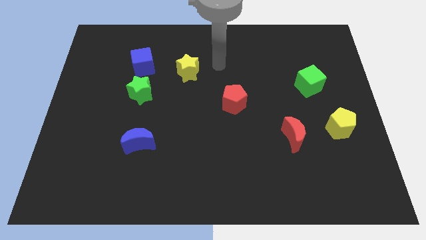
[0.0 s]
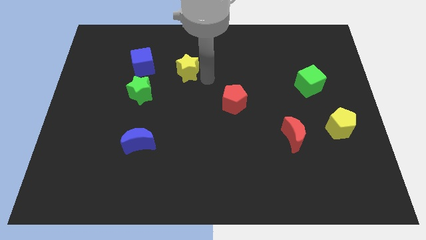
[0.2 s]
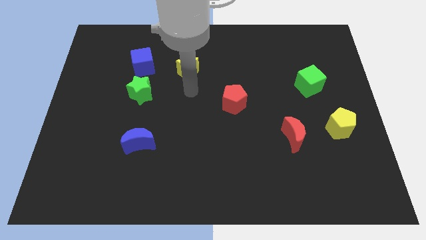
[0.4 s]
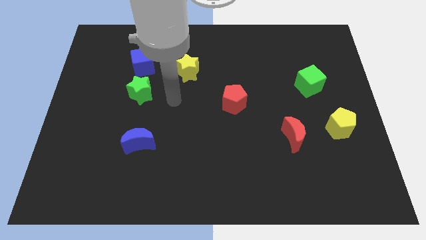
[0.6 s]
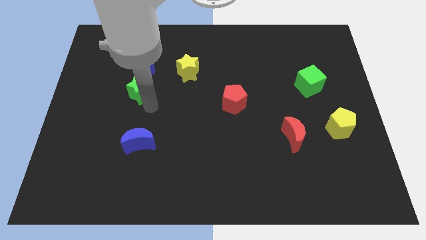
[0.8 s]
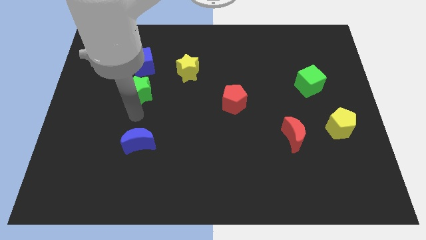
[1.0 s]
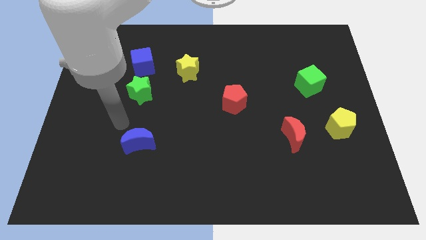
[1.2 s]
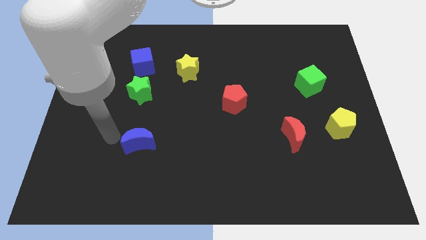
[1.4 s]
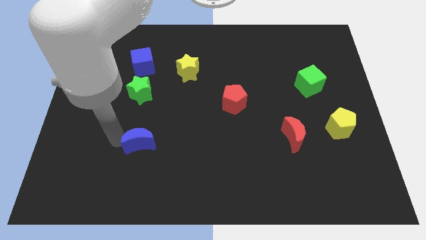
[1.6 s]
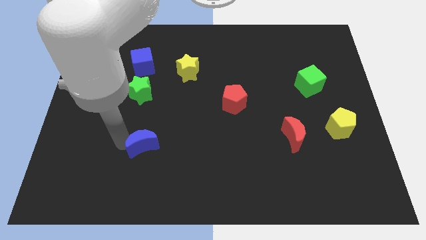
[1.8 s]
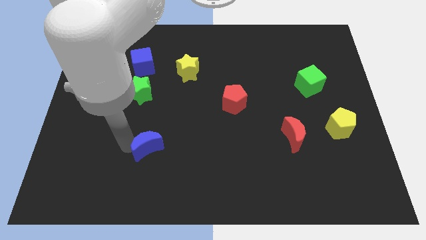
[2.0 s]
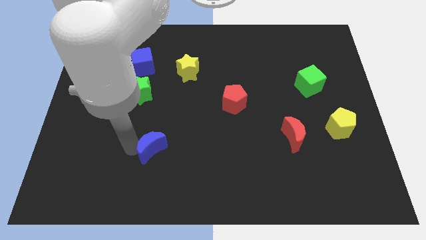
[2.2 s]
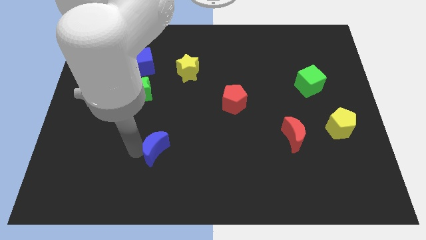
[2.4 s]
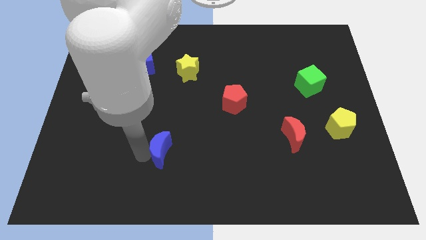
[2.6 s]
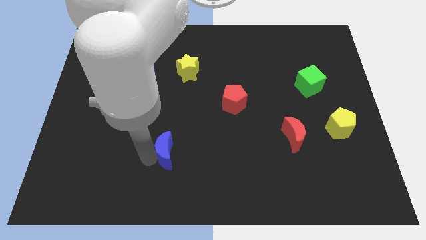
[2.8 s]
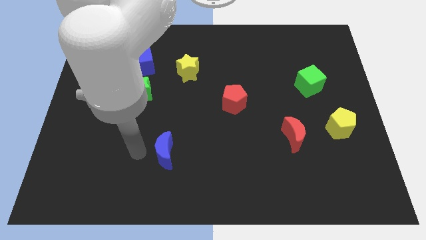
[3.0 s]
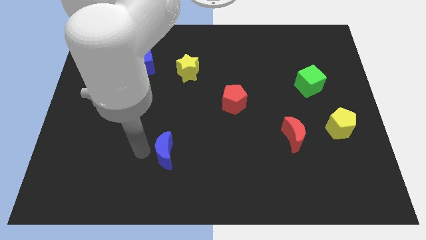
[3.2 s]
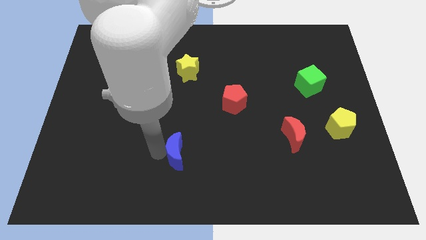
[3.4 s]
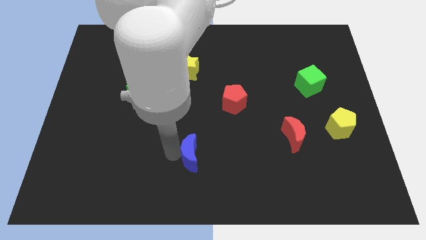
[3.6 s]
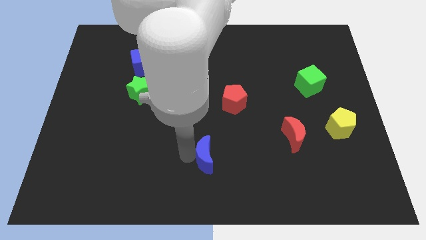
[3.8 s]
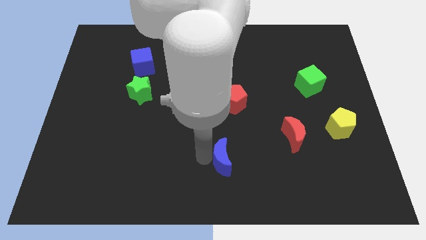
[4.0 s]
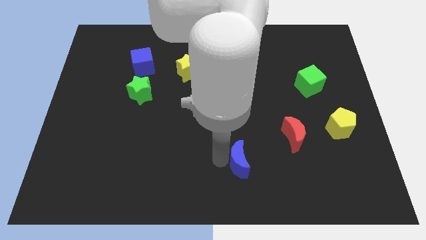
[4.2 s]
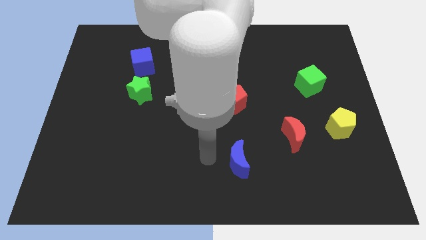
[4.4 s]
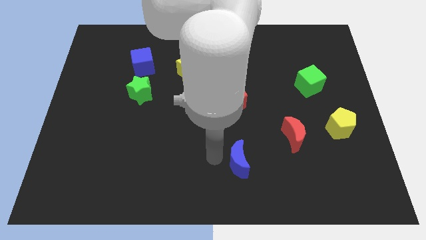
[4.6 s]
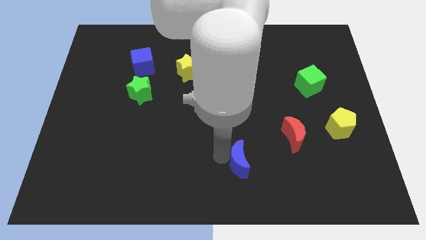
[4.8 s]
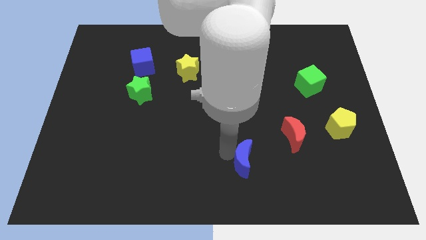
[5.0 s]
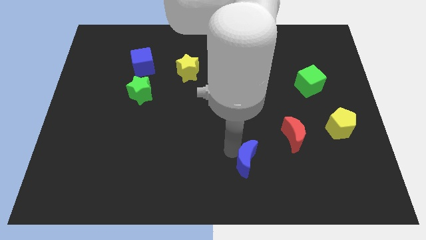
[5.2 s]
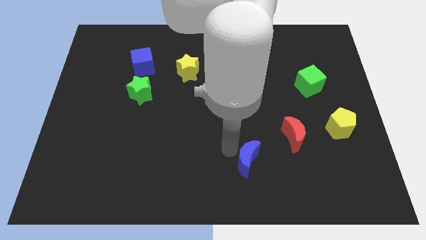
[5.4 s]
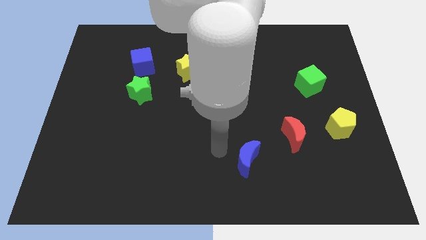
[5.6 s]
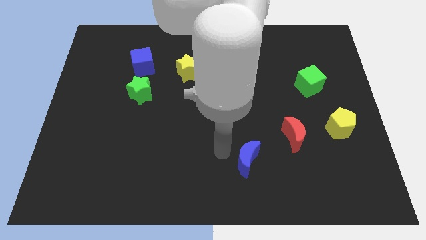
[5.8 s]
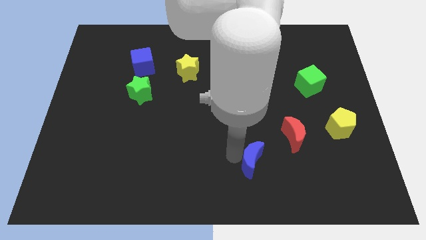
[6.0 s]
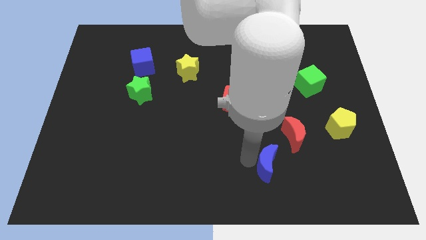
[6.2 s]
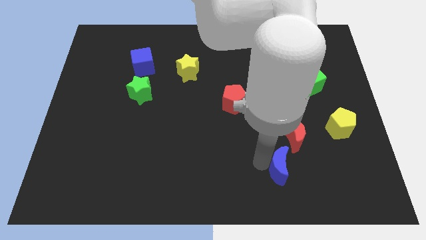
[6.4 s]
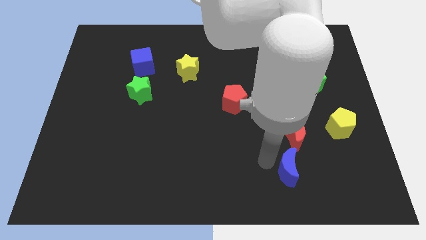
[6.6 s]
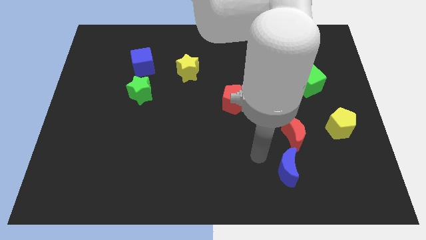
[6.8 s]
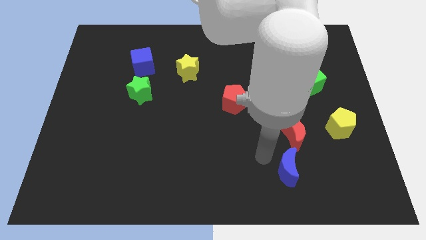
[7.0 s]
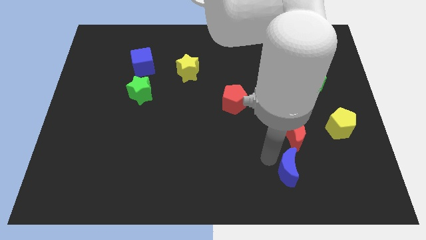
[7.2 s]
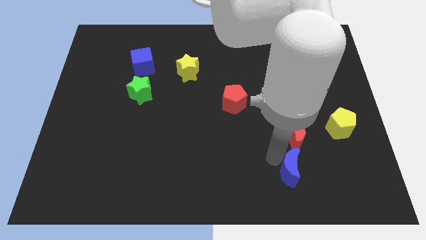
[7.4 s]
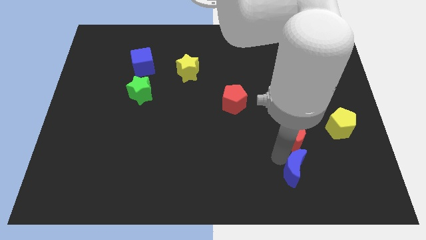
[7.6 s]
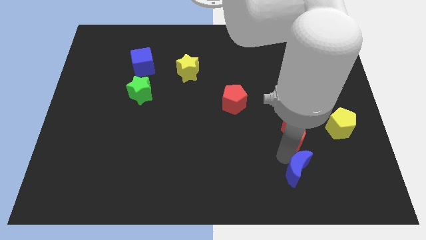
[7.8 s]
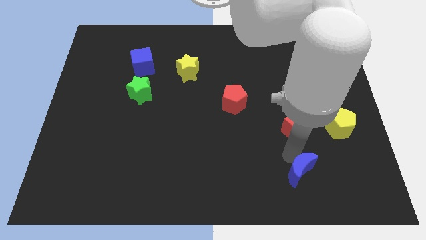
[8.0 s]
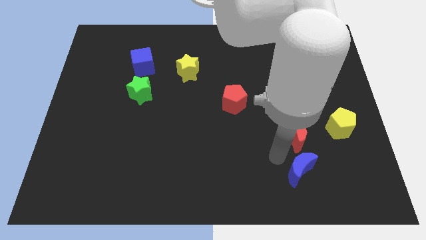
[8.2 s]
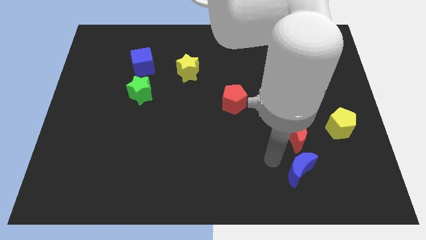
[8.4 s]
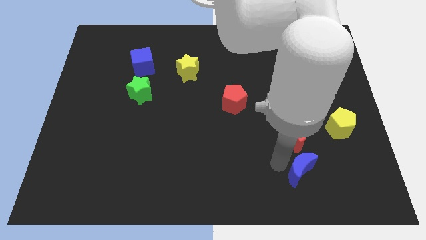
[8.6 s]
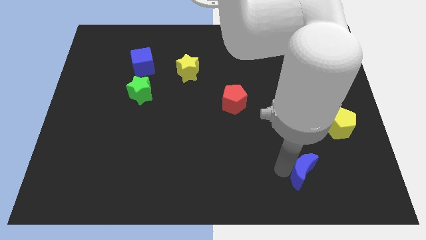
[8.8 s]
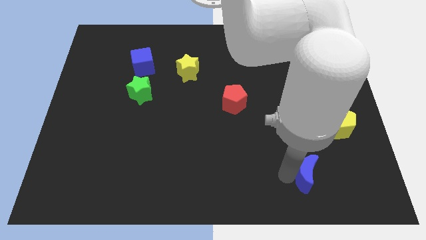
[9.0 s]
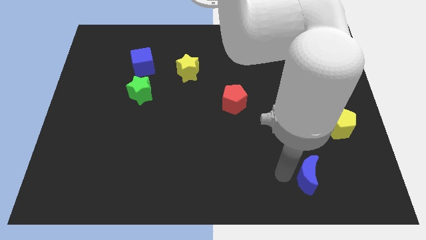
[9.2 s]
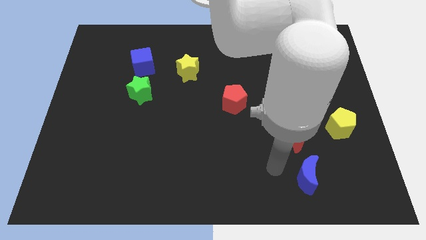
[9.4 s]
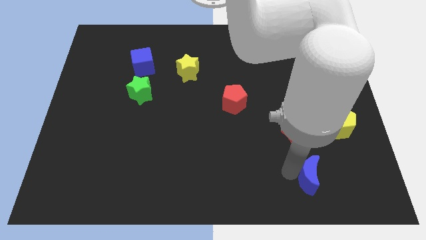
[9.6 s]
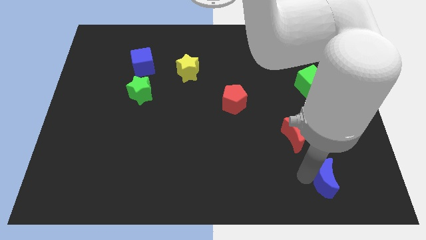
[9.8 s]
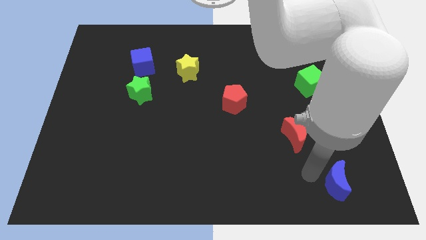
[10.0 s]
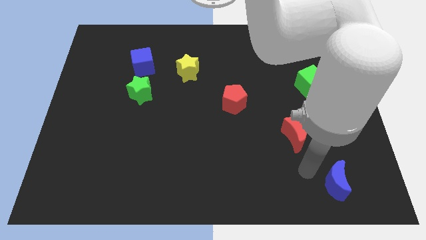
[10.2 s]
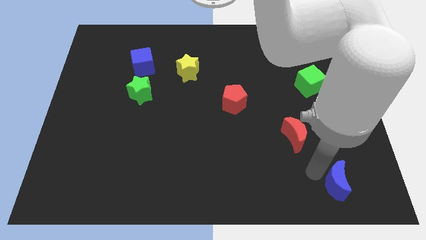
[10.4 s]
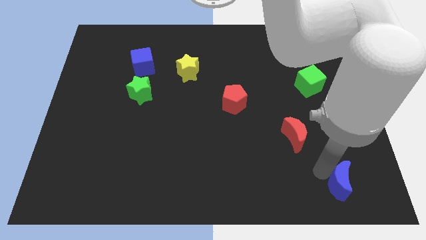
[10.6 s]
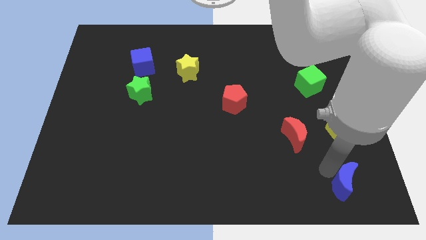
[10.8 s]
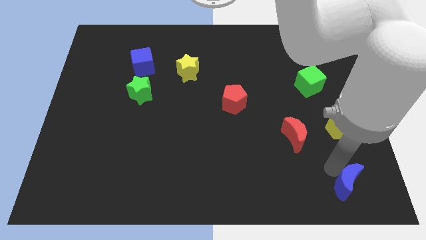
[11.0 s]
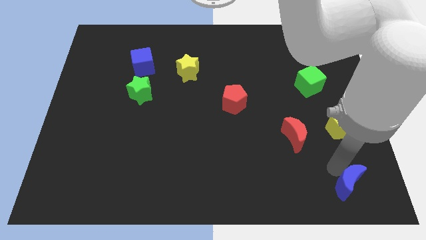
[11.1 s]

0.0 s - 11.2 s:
move the blue moon to the bottom right

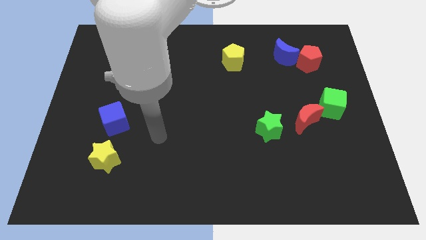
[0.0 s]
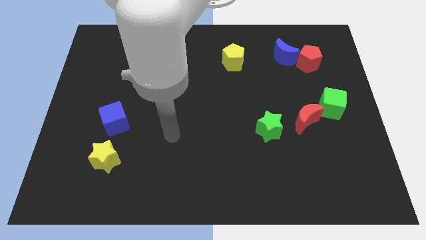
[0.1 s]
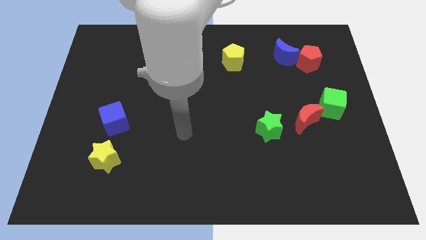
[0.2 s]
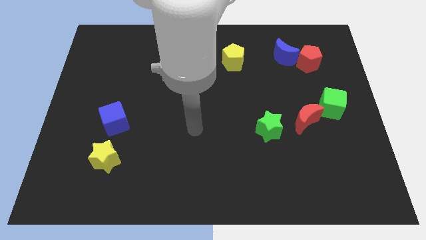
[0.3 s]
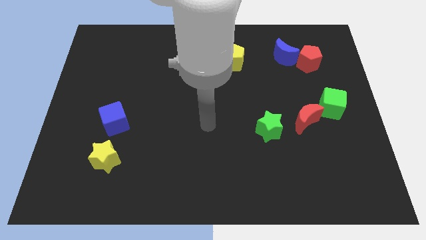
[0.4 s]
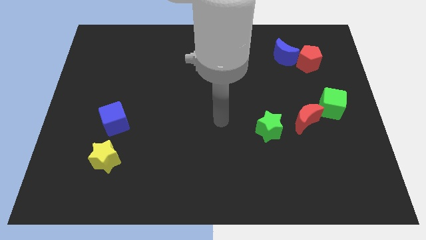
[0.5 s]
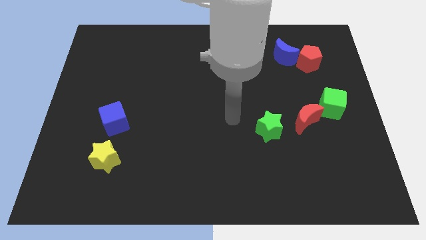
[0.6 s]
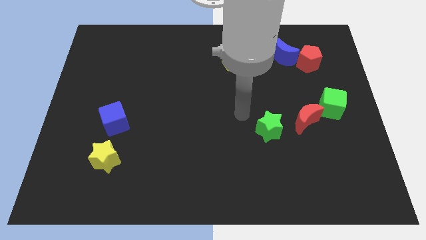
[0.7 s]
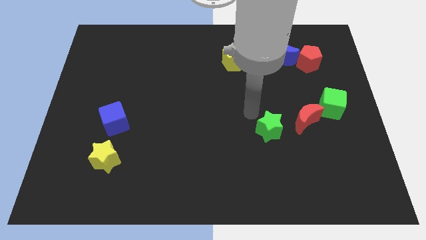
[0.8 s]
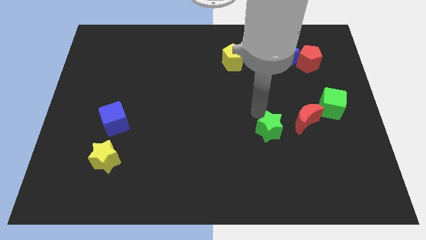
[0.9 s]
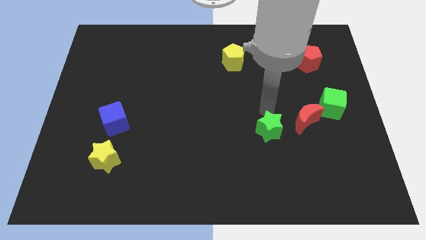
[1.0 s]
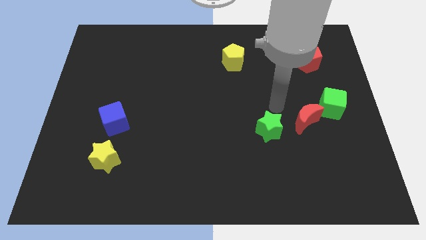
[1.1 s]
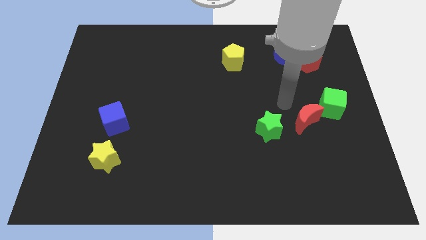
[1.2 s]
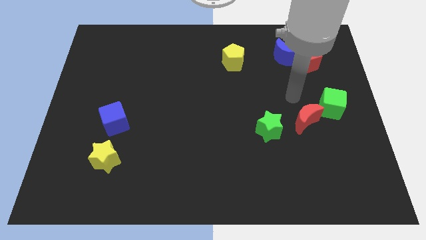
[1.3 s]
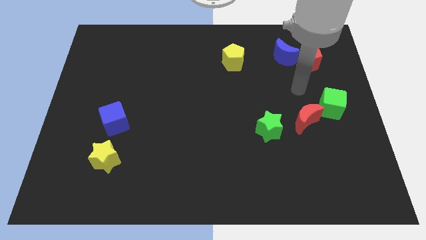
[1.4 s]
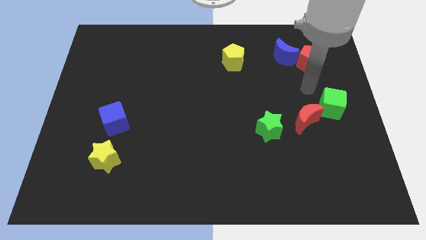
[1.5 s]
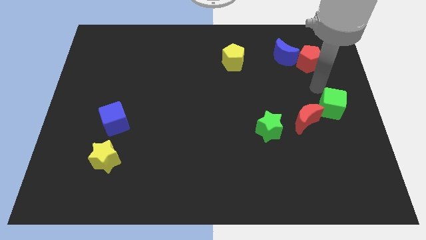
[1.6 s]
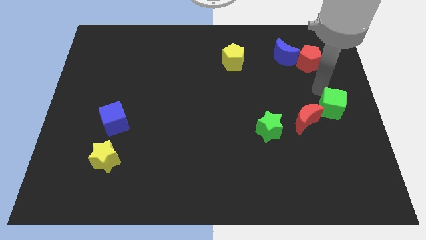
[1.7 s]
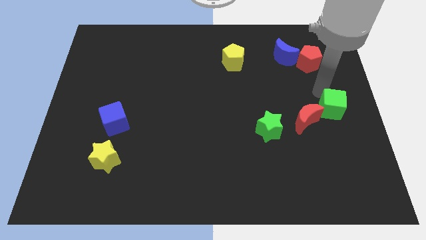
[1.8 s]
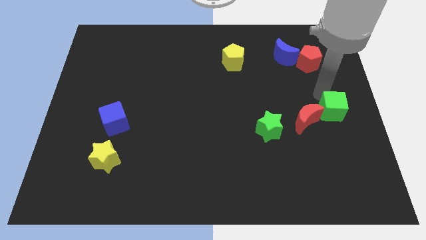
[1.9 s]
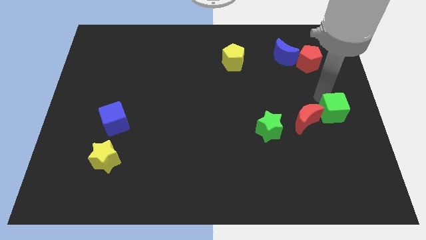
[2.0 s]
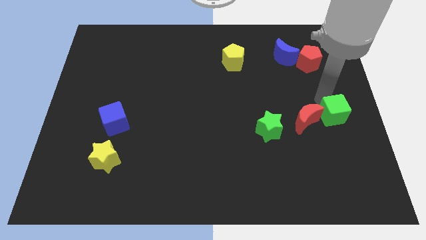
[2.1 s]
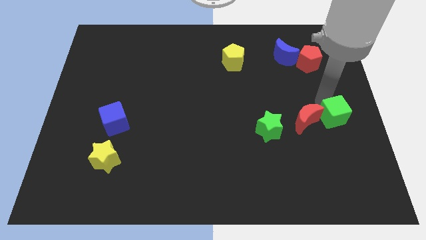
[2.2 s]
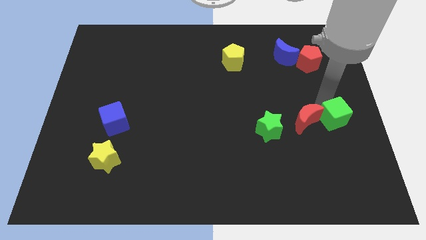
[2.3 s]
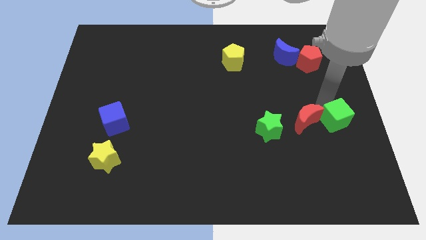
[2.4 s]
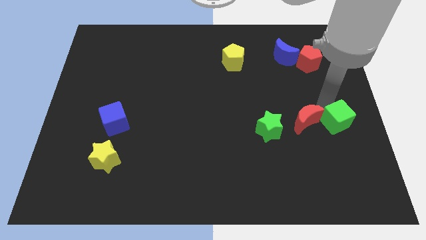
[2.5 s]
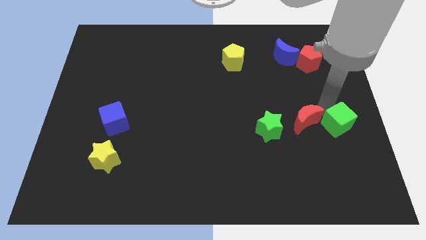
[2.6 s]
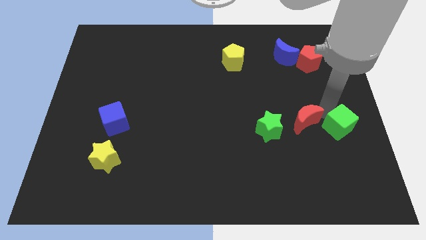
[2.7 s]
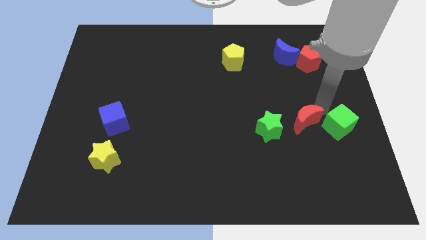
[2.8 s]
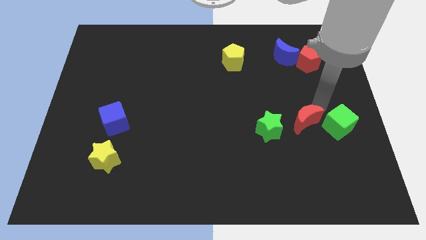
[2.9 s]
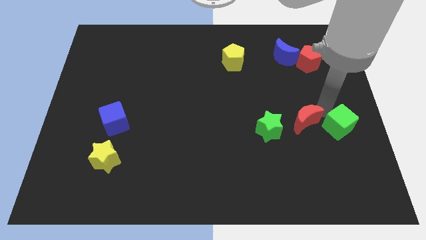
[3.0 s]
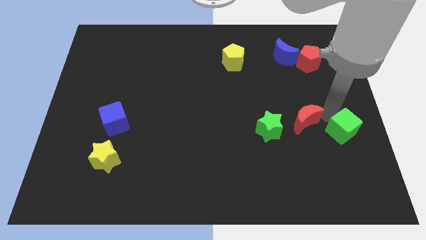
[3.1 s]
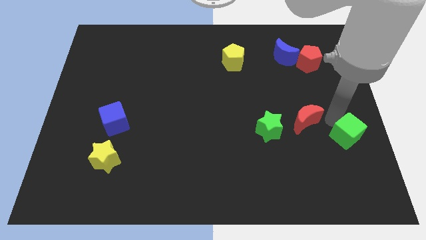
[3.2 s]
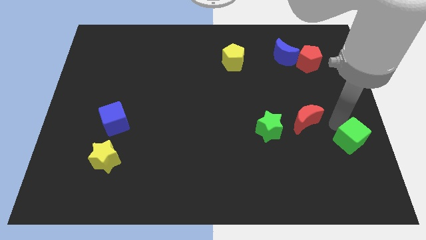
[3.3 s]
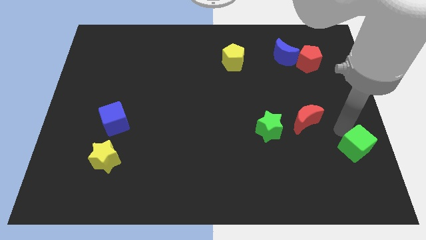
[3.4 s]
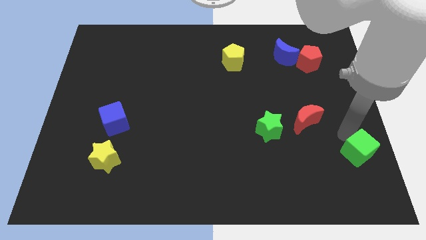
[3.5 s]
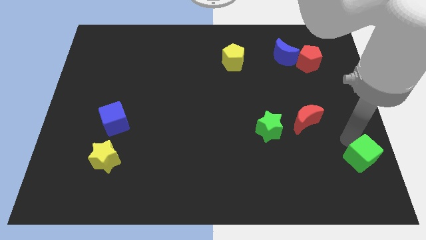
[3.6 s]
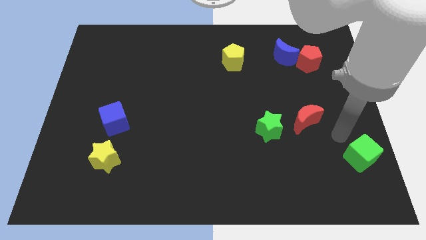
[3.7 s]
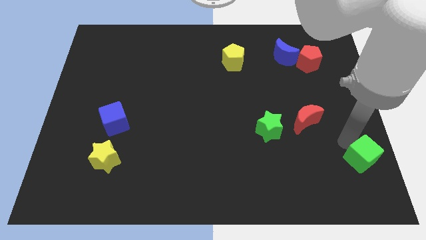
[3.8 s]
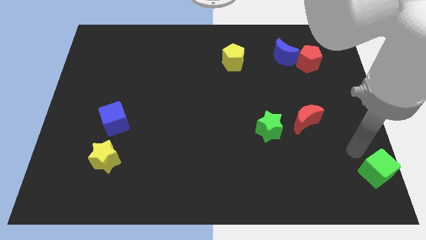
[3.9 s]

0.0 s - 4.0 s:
slide the green cube to the bottom right of the board
